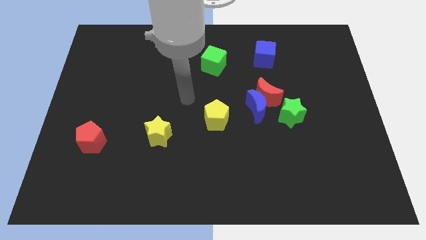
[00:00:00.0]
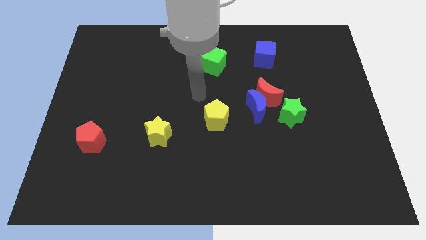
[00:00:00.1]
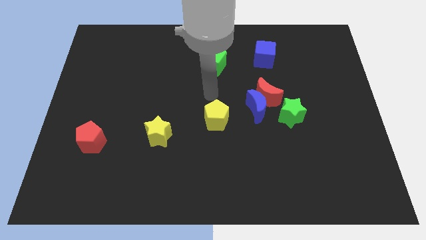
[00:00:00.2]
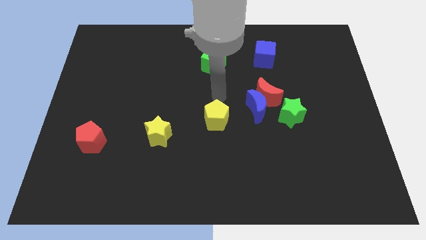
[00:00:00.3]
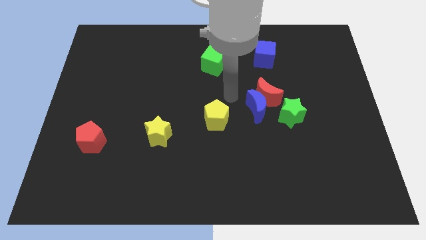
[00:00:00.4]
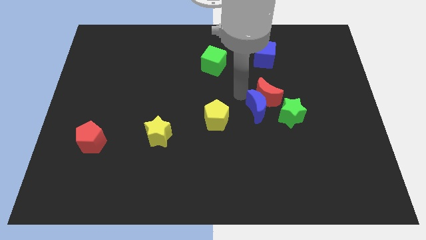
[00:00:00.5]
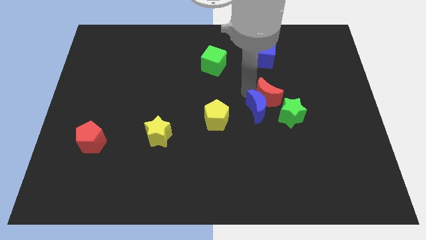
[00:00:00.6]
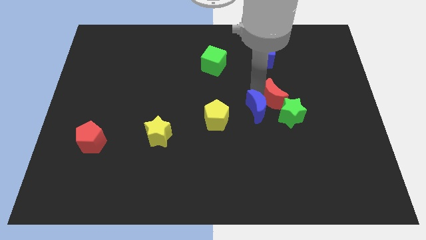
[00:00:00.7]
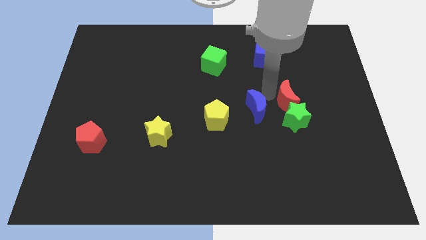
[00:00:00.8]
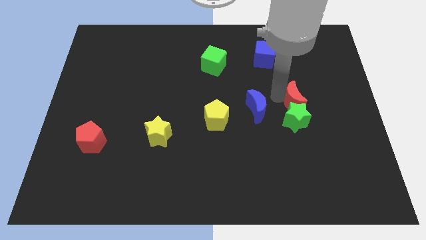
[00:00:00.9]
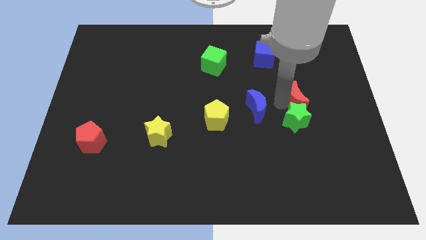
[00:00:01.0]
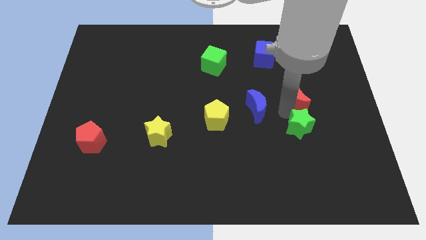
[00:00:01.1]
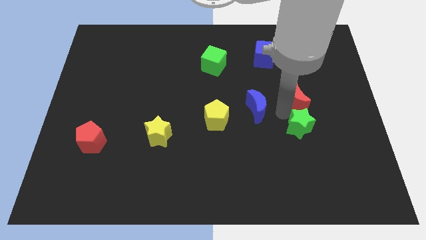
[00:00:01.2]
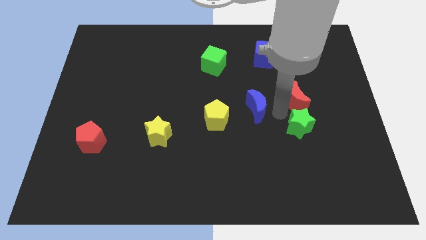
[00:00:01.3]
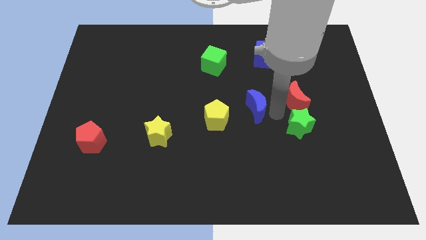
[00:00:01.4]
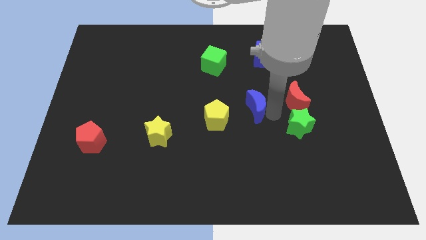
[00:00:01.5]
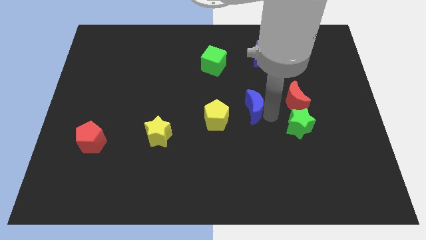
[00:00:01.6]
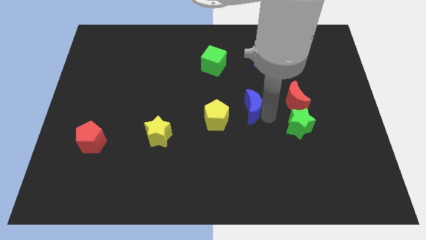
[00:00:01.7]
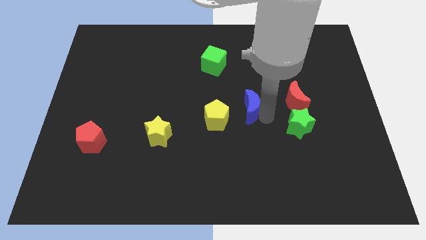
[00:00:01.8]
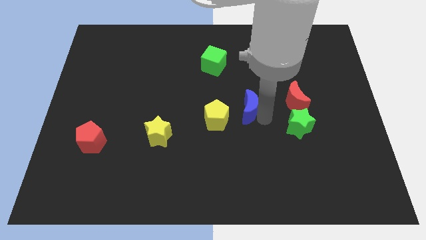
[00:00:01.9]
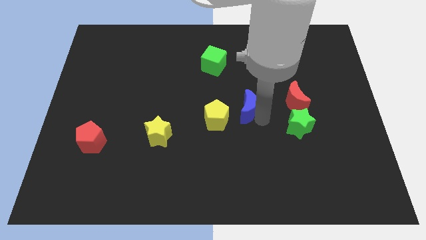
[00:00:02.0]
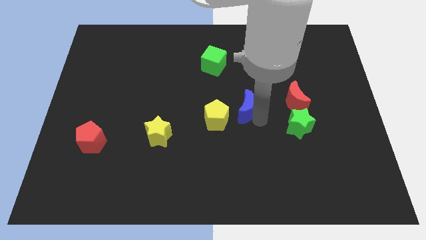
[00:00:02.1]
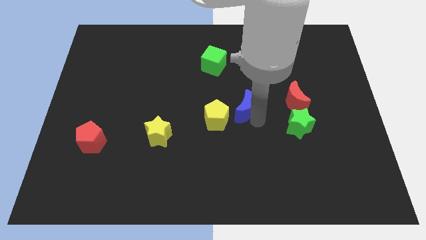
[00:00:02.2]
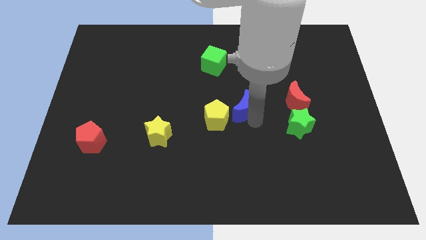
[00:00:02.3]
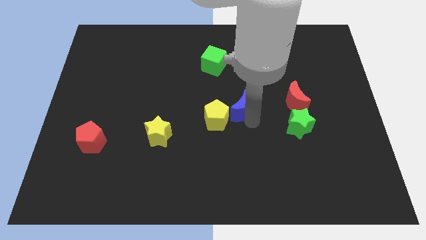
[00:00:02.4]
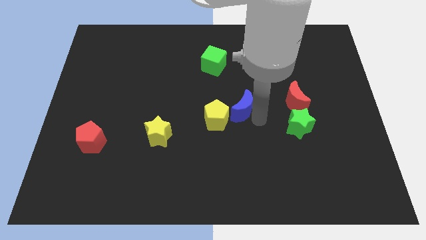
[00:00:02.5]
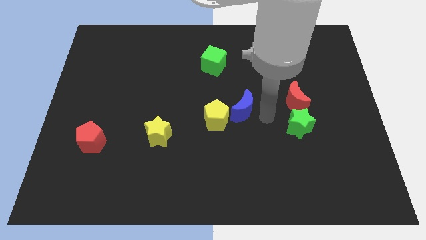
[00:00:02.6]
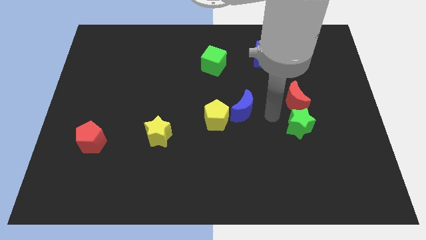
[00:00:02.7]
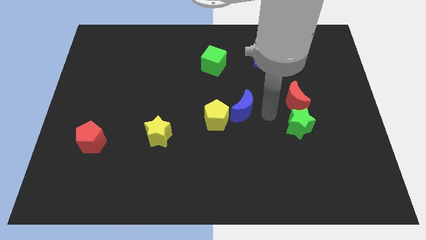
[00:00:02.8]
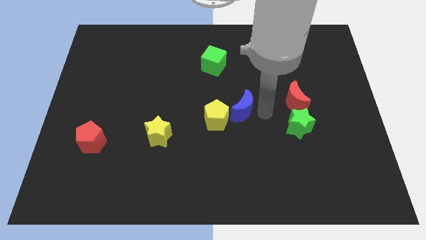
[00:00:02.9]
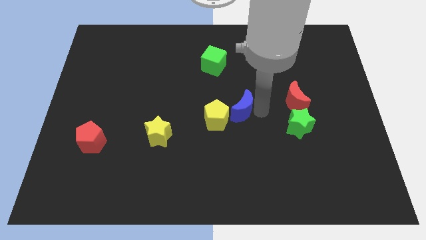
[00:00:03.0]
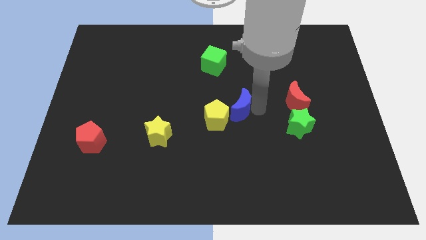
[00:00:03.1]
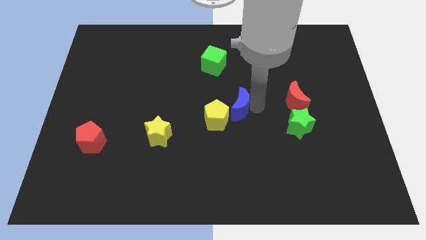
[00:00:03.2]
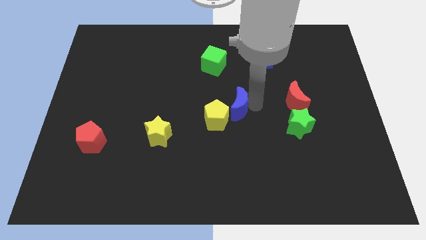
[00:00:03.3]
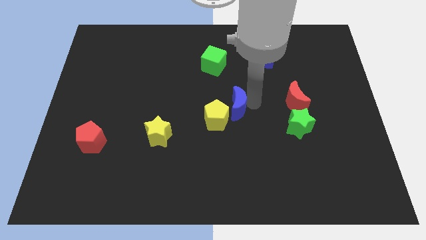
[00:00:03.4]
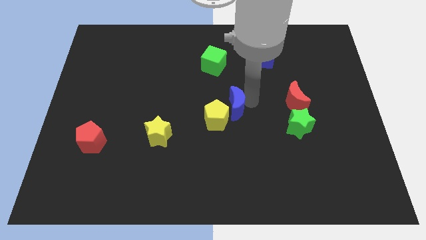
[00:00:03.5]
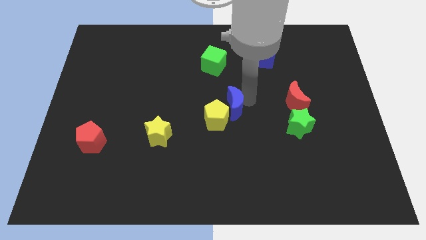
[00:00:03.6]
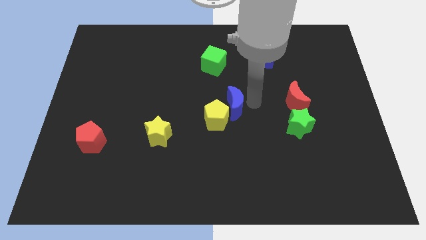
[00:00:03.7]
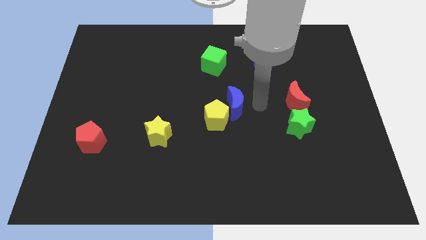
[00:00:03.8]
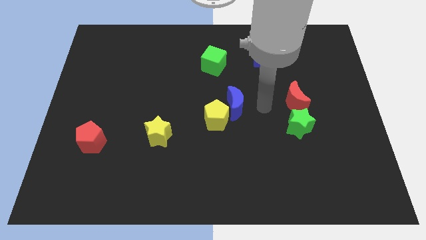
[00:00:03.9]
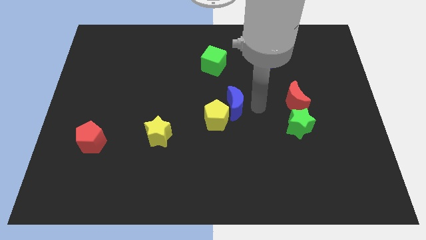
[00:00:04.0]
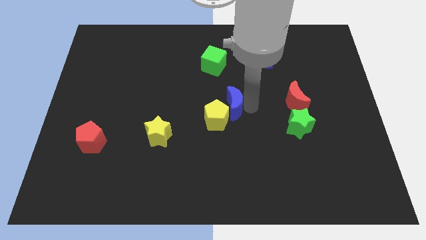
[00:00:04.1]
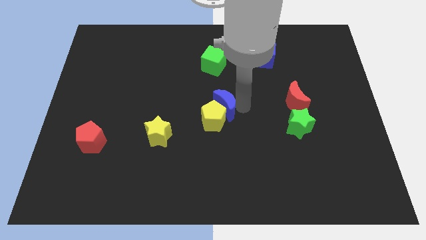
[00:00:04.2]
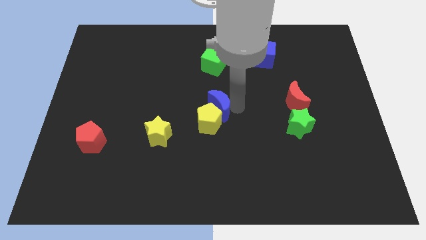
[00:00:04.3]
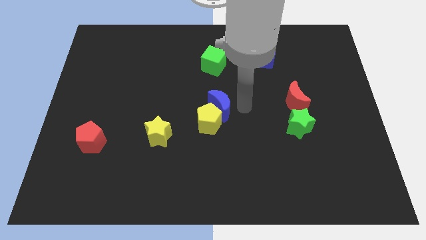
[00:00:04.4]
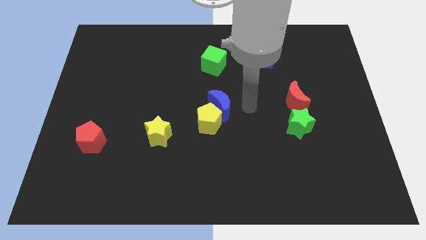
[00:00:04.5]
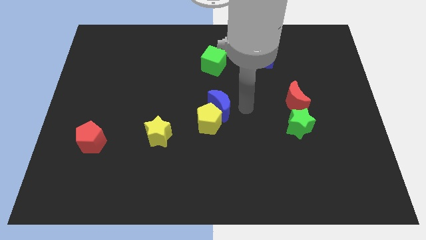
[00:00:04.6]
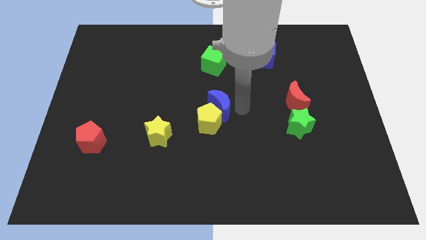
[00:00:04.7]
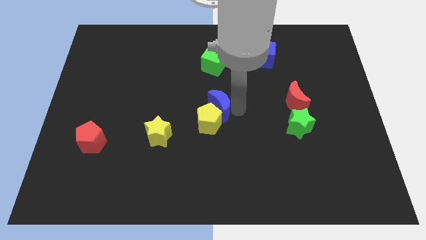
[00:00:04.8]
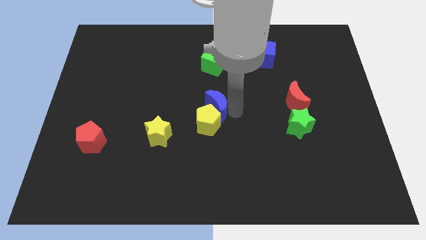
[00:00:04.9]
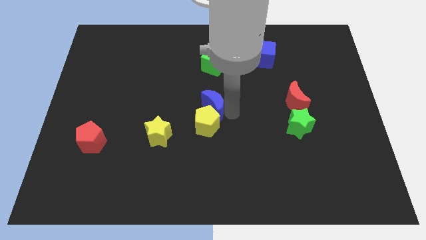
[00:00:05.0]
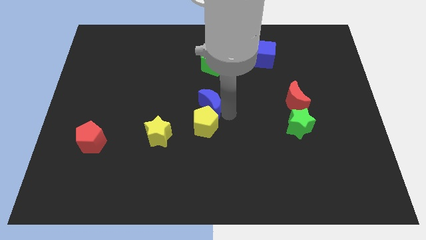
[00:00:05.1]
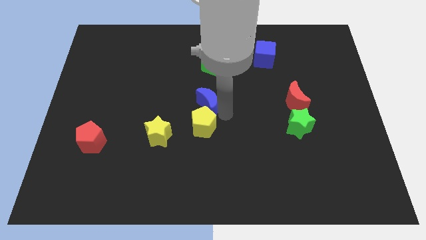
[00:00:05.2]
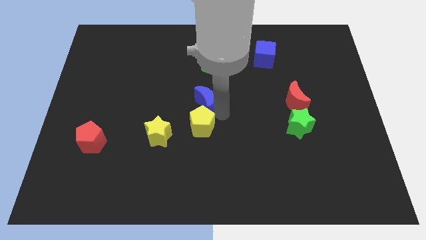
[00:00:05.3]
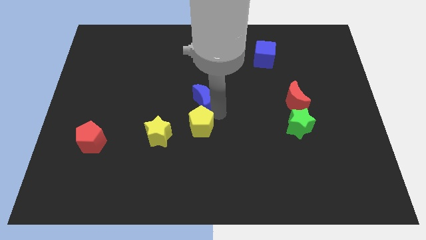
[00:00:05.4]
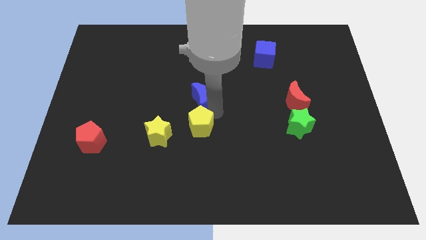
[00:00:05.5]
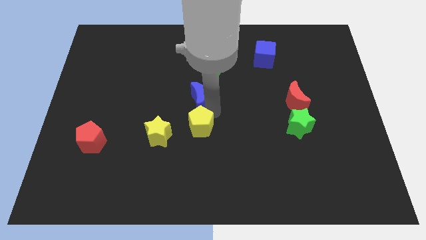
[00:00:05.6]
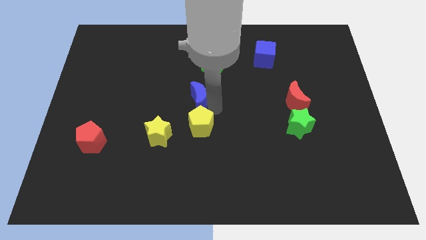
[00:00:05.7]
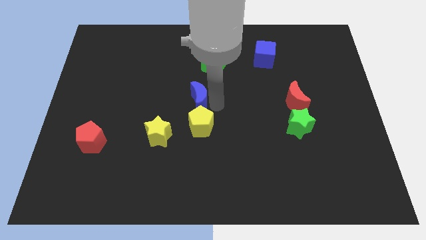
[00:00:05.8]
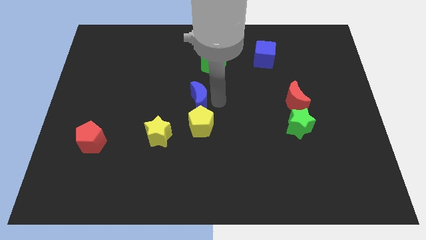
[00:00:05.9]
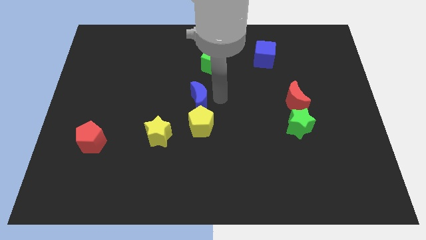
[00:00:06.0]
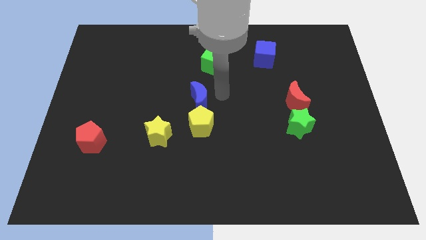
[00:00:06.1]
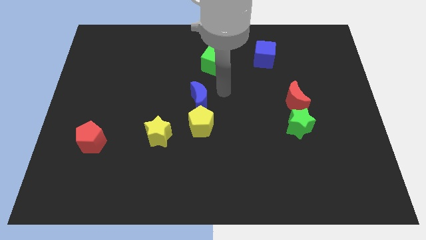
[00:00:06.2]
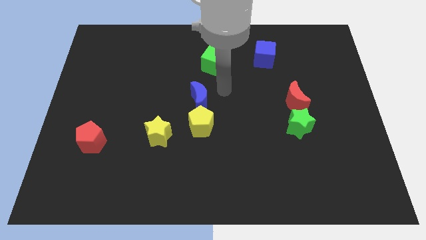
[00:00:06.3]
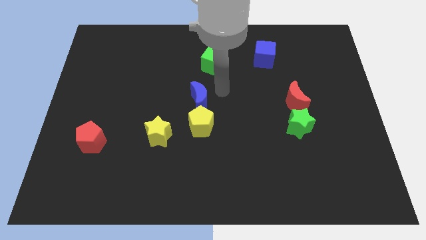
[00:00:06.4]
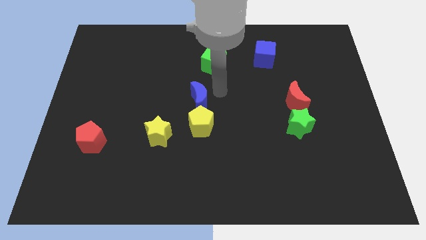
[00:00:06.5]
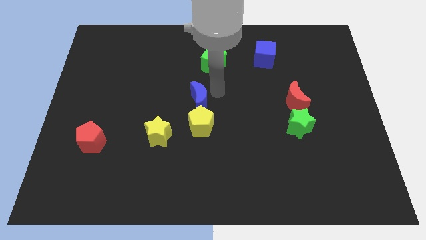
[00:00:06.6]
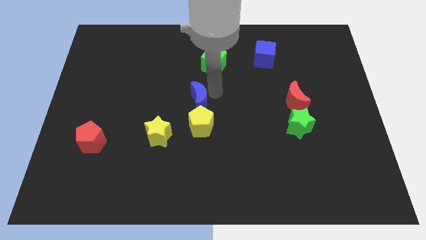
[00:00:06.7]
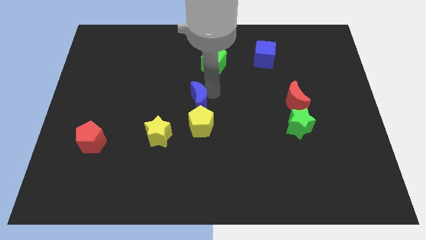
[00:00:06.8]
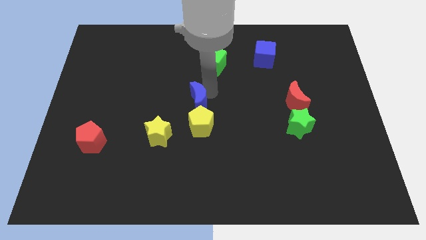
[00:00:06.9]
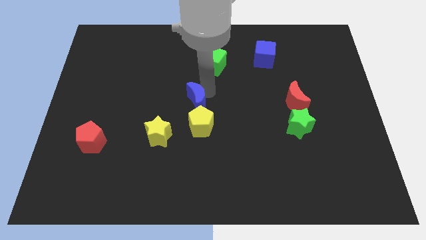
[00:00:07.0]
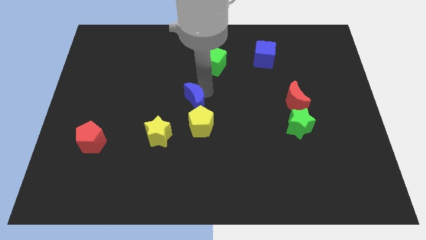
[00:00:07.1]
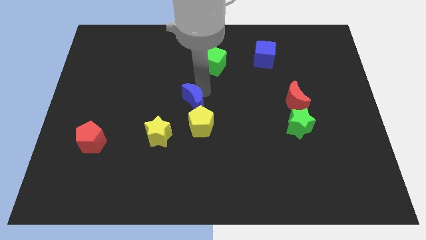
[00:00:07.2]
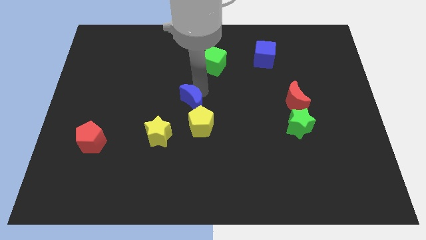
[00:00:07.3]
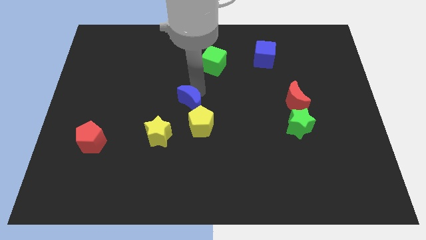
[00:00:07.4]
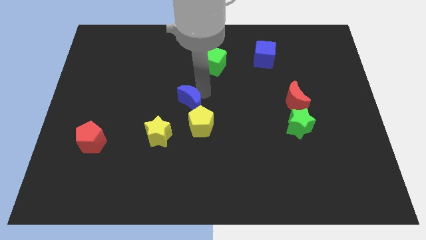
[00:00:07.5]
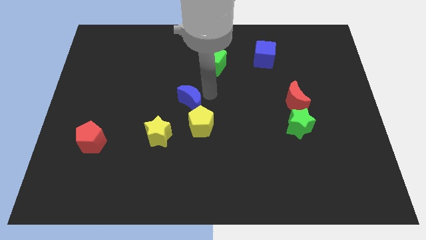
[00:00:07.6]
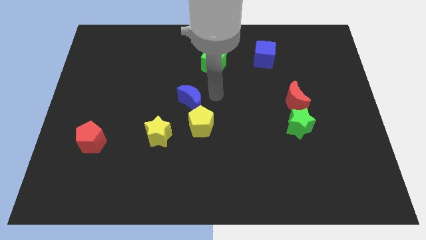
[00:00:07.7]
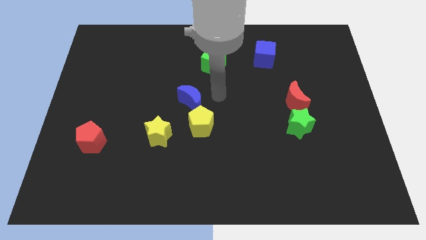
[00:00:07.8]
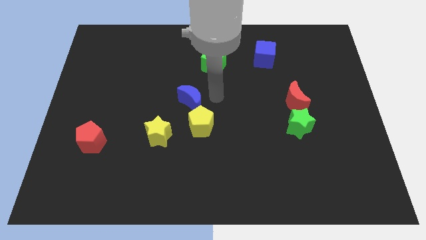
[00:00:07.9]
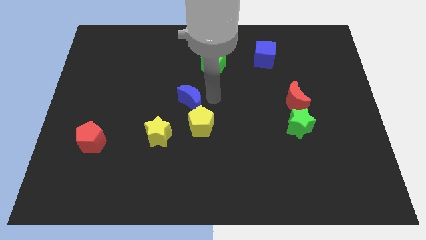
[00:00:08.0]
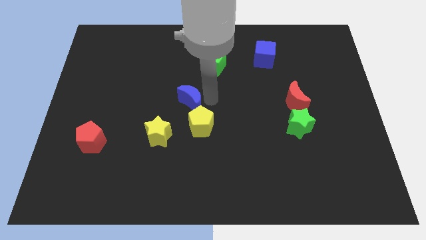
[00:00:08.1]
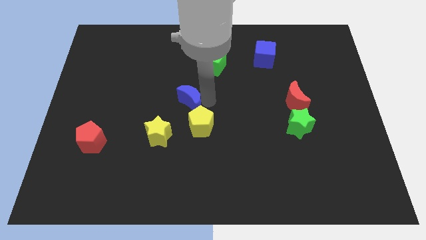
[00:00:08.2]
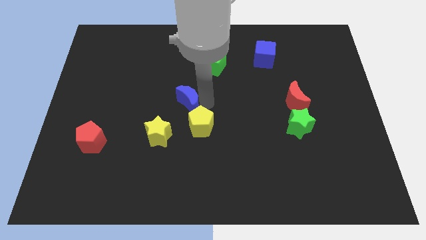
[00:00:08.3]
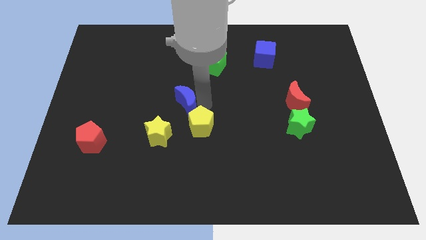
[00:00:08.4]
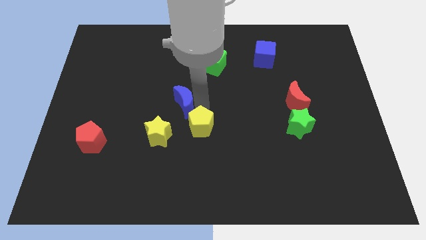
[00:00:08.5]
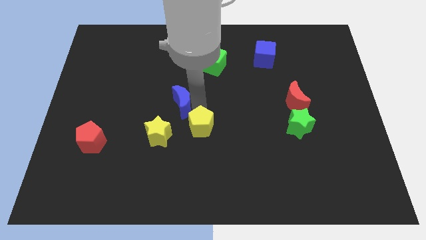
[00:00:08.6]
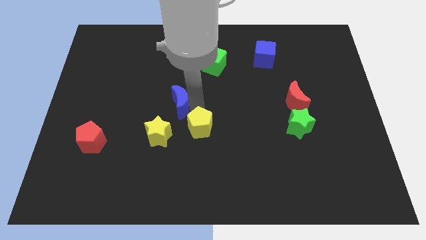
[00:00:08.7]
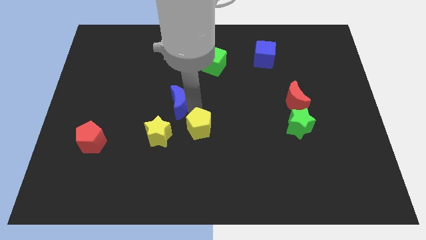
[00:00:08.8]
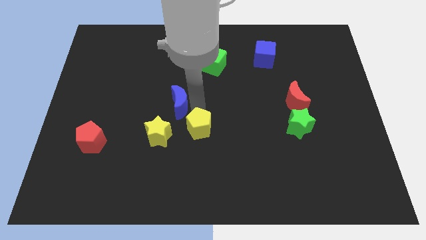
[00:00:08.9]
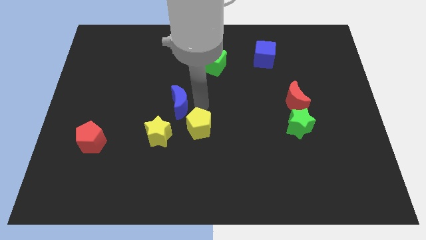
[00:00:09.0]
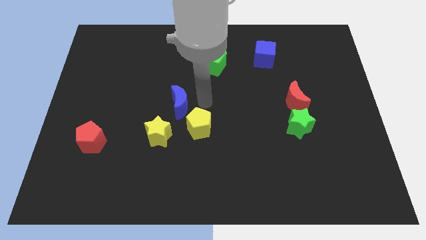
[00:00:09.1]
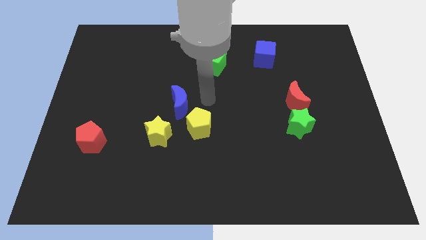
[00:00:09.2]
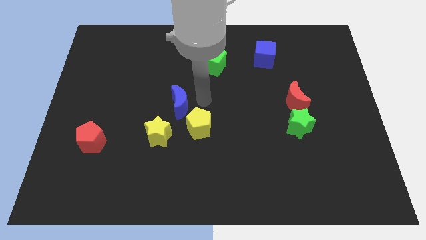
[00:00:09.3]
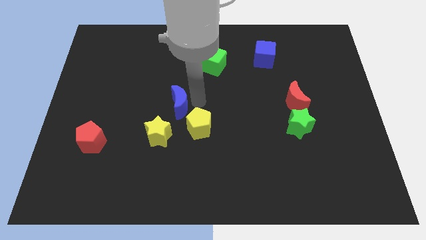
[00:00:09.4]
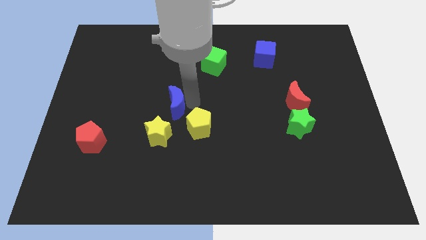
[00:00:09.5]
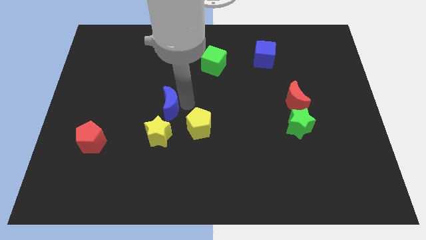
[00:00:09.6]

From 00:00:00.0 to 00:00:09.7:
move the blue moon to the left
